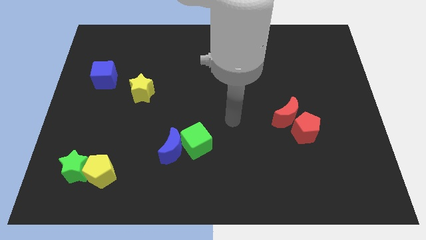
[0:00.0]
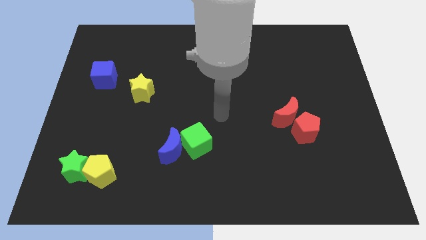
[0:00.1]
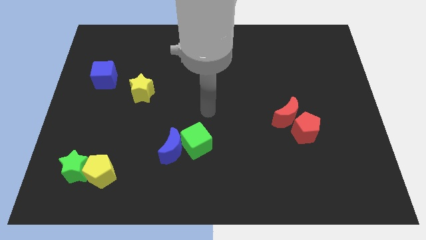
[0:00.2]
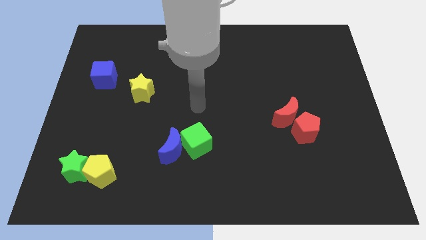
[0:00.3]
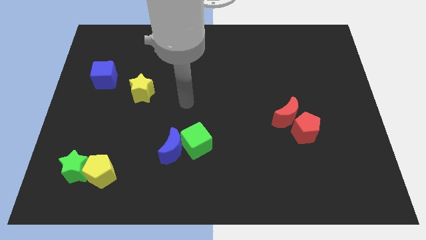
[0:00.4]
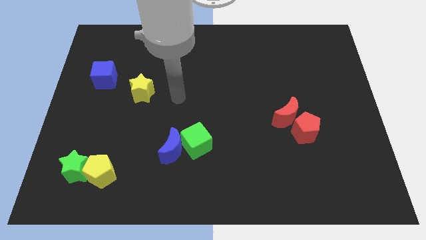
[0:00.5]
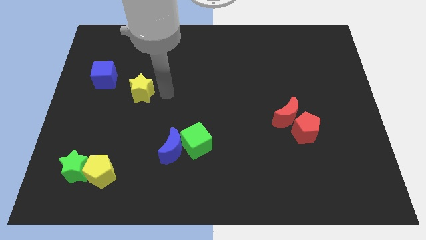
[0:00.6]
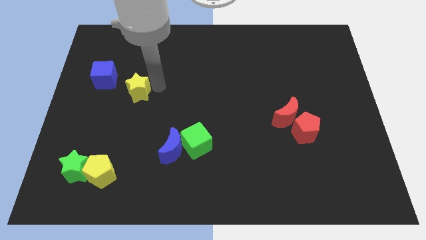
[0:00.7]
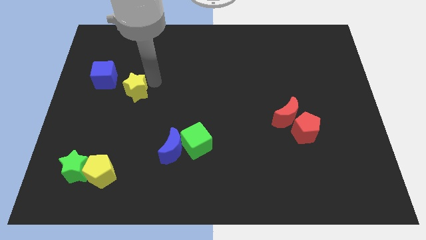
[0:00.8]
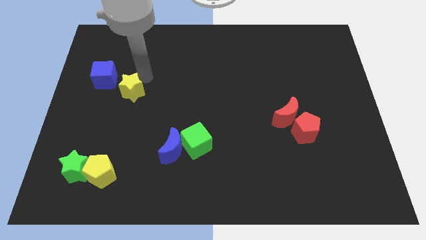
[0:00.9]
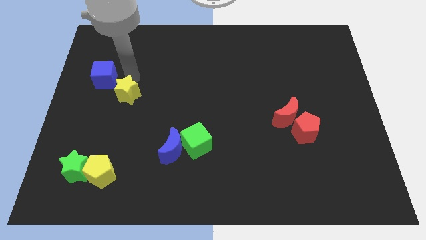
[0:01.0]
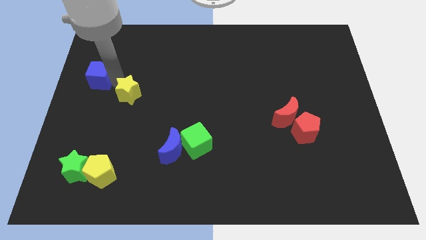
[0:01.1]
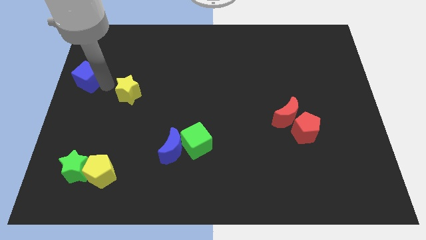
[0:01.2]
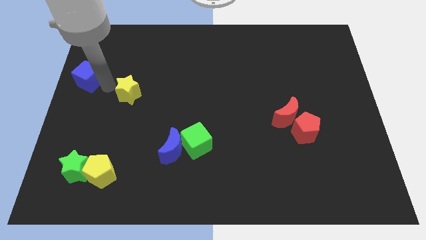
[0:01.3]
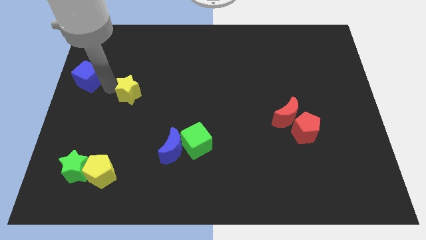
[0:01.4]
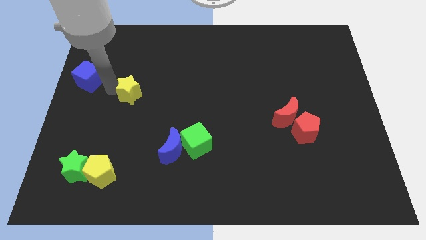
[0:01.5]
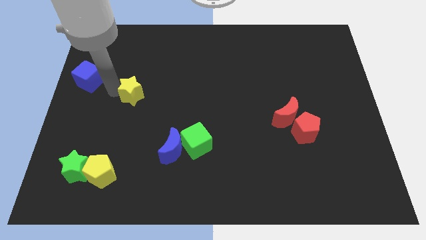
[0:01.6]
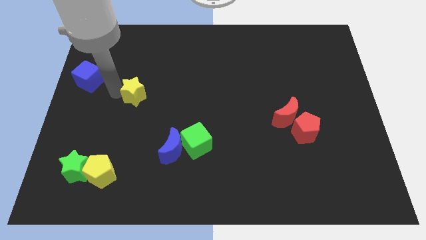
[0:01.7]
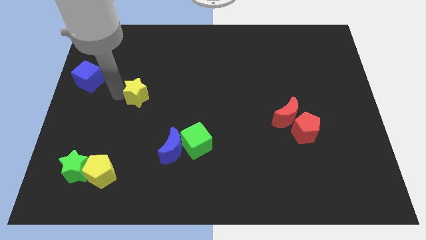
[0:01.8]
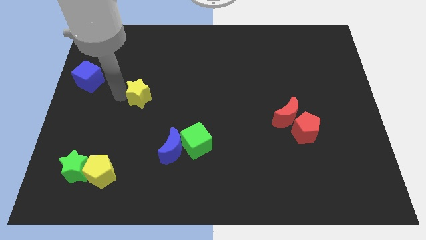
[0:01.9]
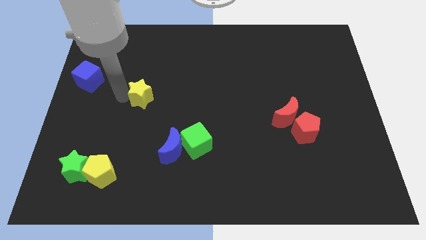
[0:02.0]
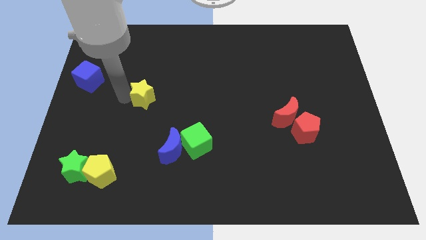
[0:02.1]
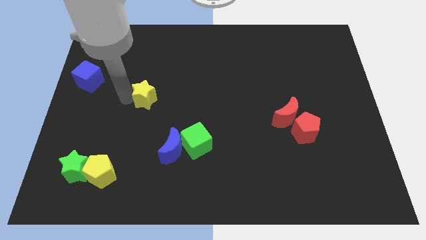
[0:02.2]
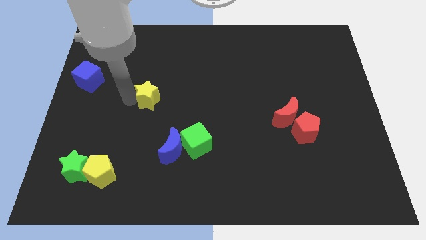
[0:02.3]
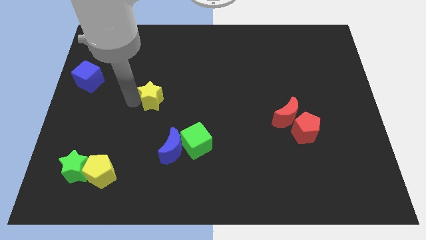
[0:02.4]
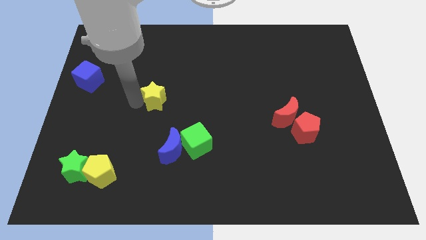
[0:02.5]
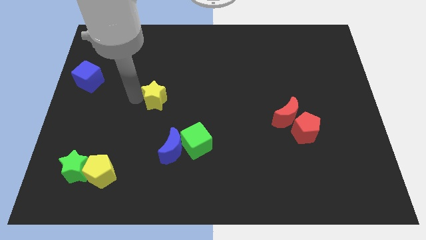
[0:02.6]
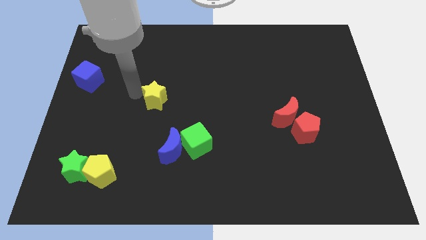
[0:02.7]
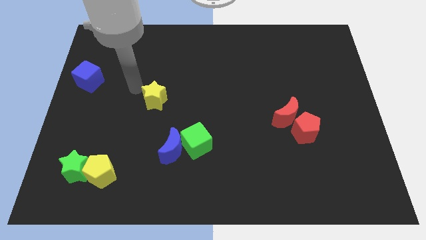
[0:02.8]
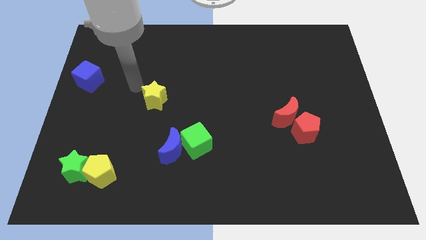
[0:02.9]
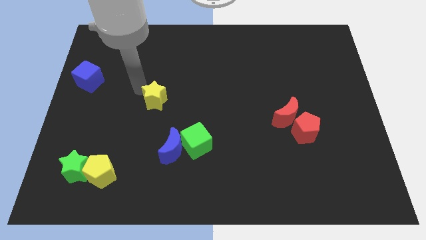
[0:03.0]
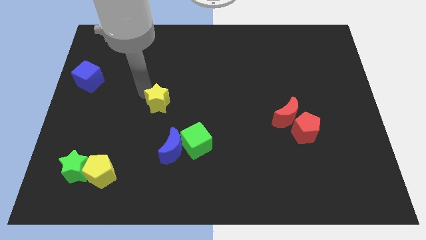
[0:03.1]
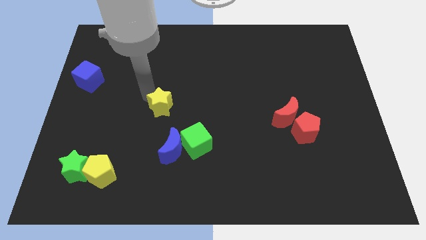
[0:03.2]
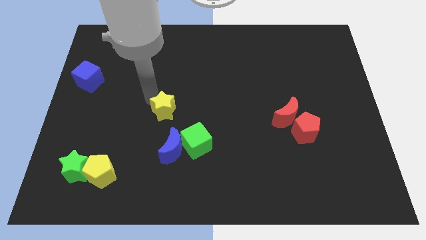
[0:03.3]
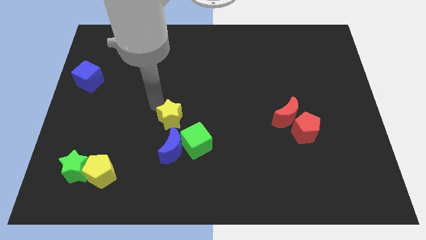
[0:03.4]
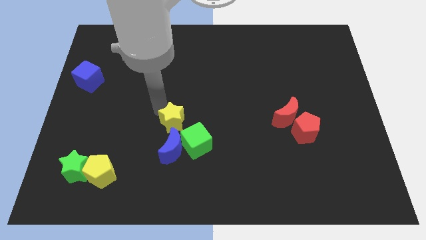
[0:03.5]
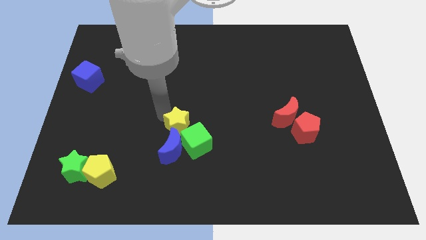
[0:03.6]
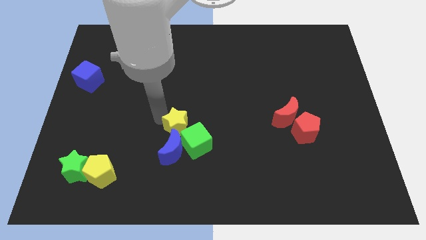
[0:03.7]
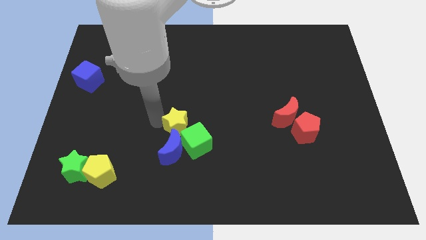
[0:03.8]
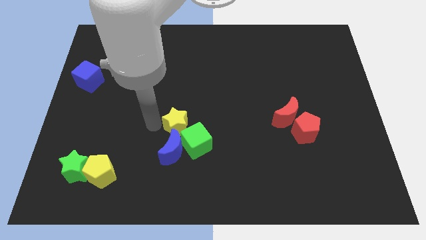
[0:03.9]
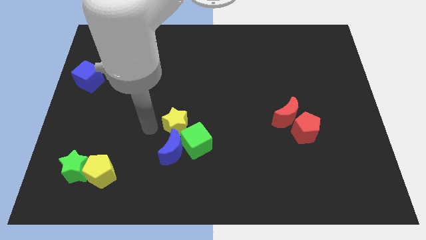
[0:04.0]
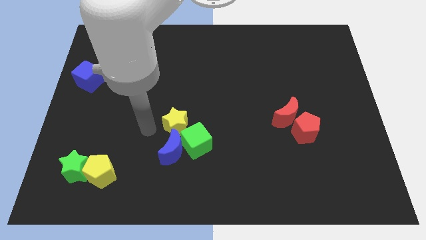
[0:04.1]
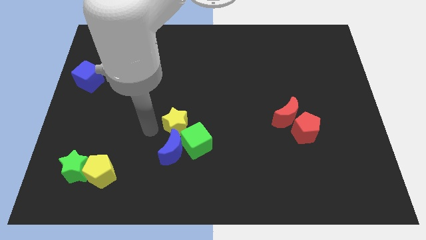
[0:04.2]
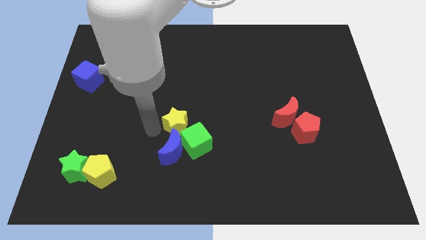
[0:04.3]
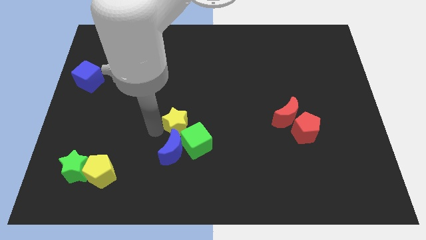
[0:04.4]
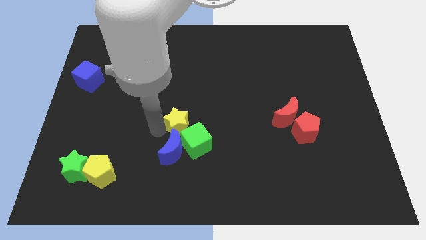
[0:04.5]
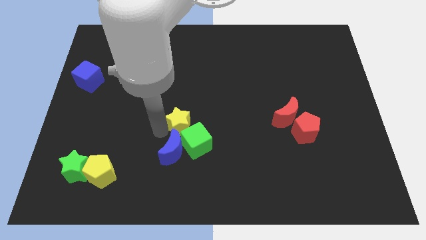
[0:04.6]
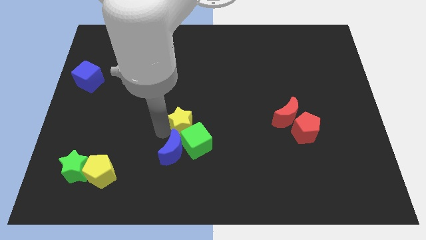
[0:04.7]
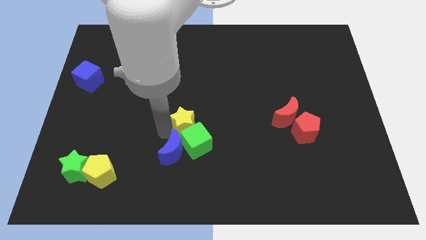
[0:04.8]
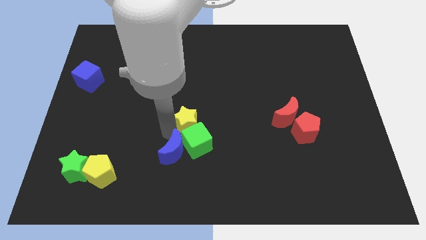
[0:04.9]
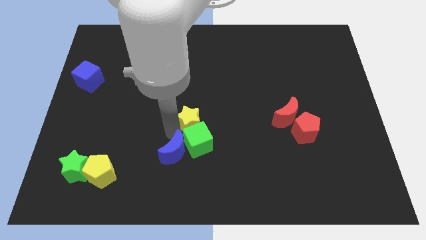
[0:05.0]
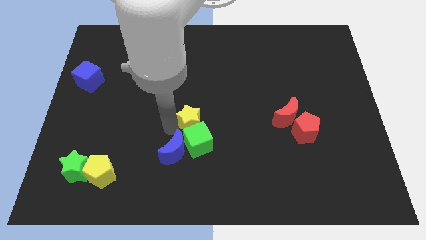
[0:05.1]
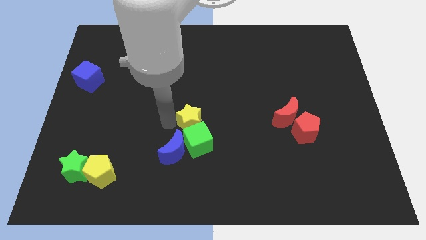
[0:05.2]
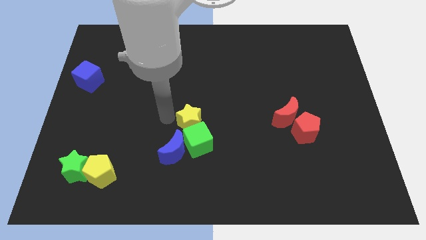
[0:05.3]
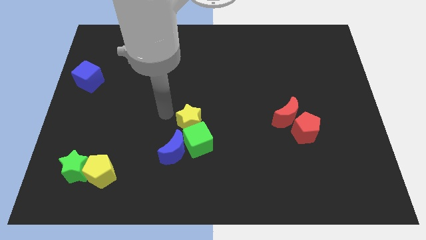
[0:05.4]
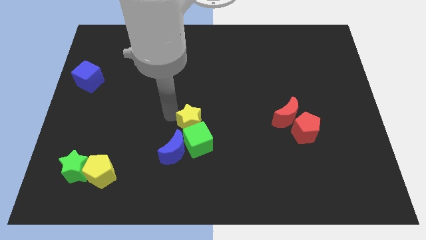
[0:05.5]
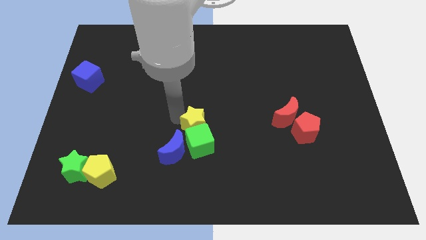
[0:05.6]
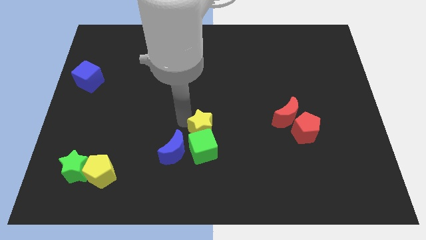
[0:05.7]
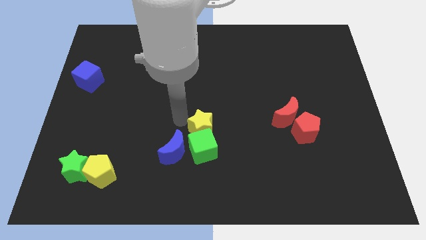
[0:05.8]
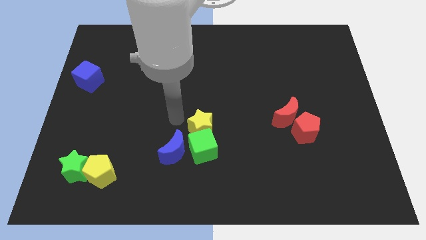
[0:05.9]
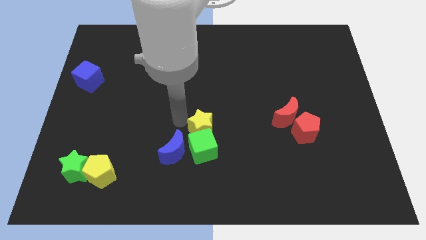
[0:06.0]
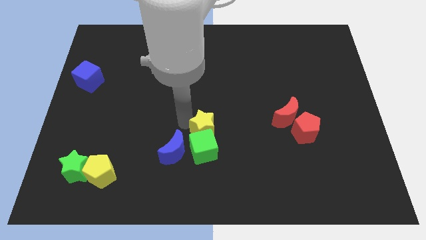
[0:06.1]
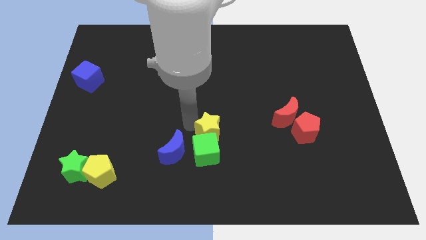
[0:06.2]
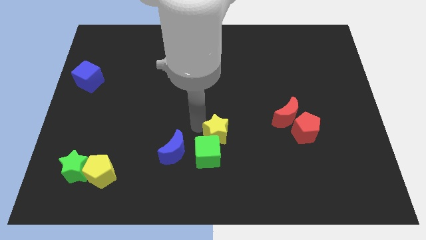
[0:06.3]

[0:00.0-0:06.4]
move the yellow star down and to the right

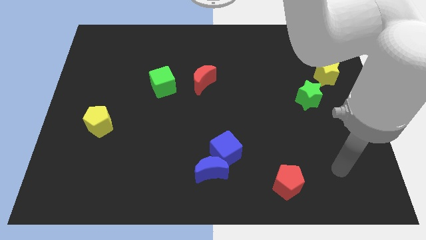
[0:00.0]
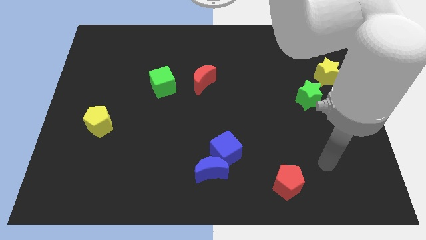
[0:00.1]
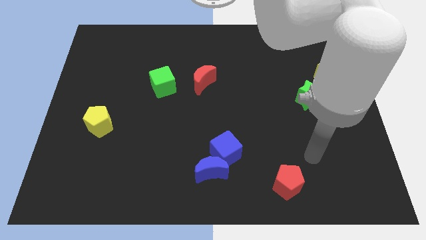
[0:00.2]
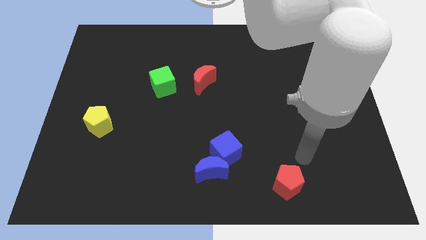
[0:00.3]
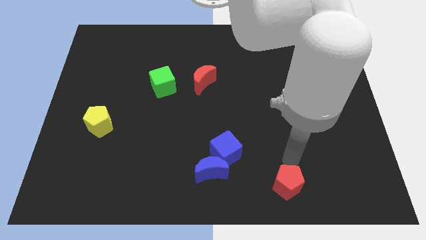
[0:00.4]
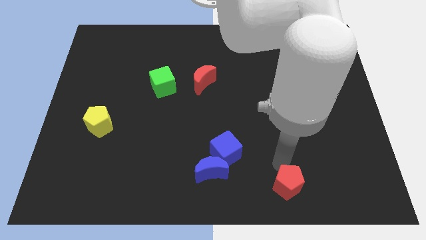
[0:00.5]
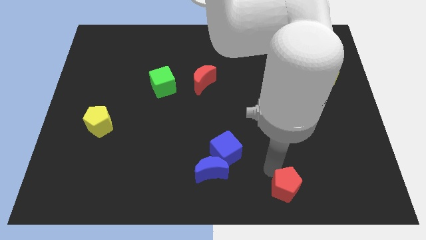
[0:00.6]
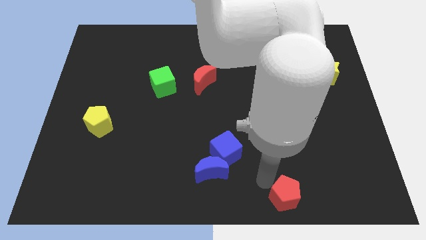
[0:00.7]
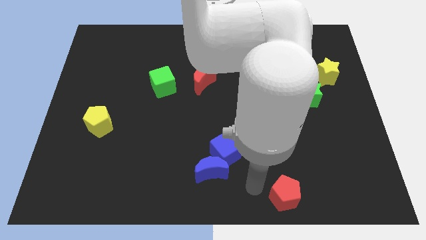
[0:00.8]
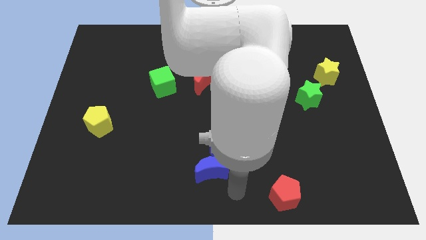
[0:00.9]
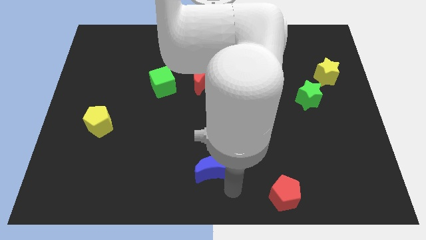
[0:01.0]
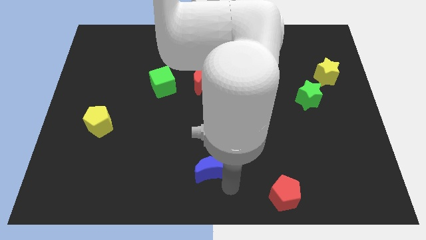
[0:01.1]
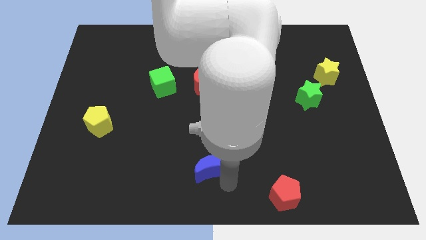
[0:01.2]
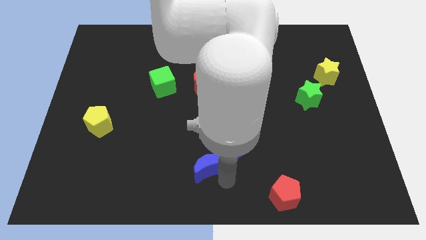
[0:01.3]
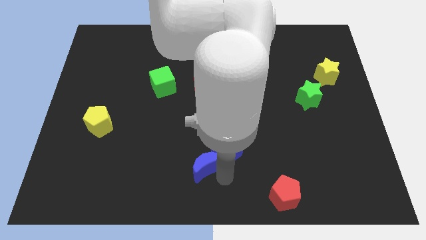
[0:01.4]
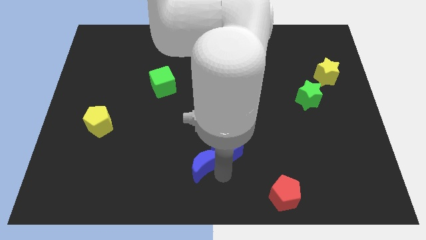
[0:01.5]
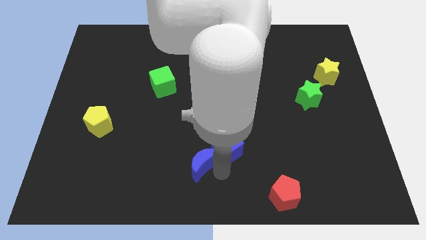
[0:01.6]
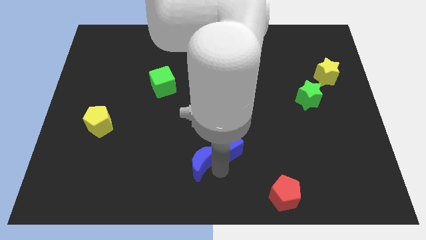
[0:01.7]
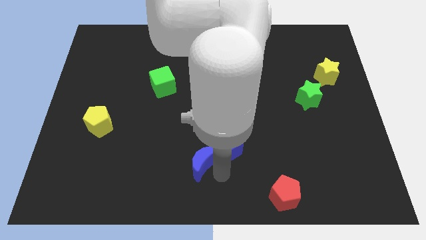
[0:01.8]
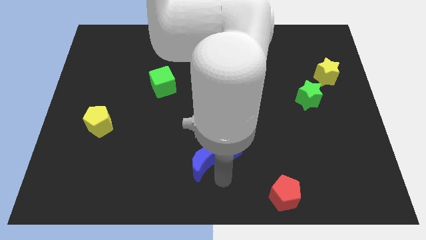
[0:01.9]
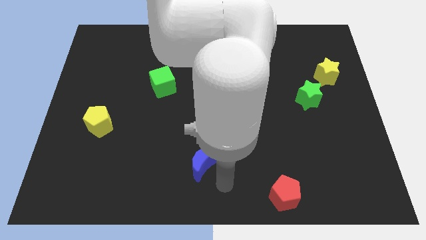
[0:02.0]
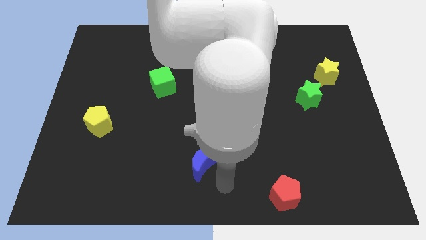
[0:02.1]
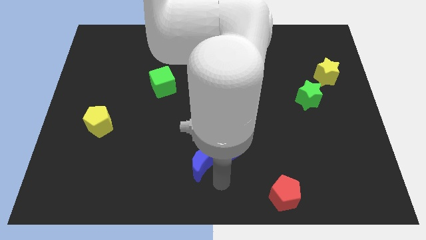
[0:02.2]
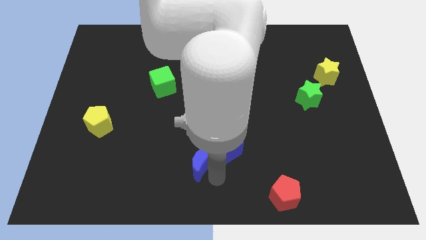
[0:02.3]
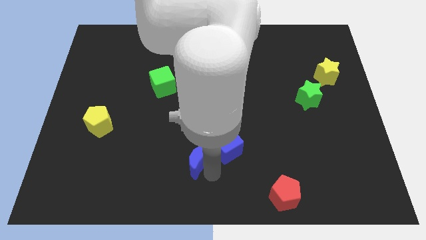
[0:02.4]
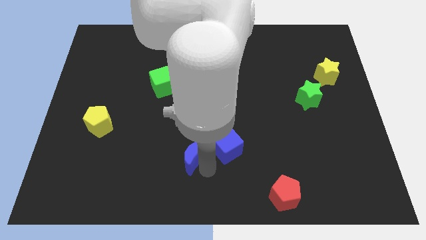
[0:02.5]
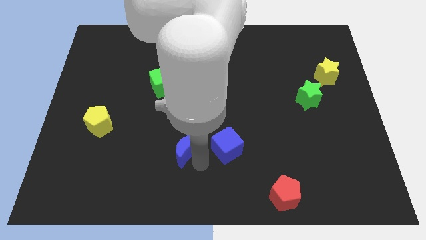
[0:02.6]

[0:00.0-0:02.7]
slightly push the blue moon up and then left
